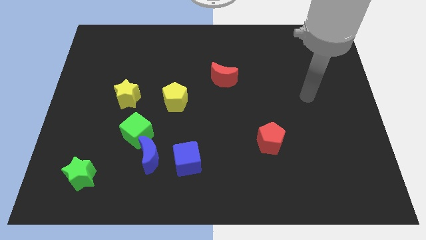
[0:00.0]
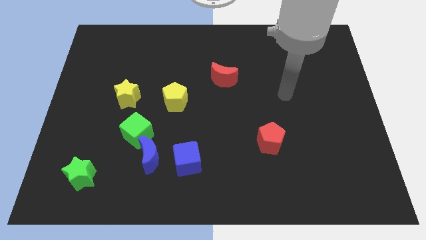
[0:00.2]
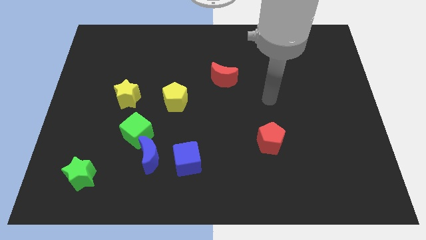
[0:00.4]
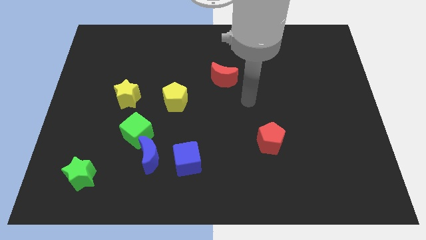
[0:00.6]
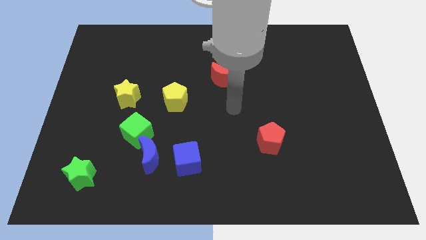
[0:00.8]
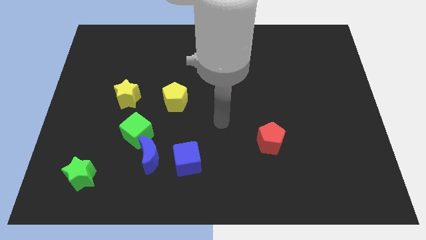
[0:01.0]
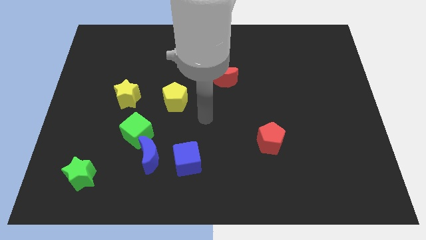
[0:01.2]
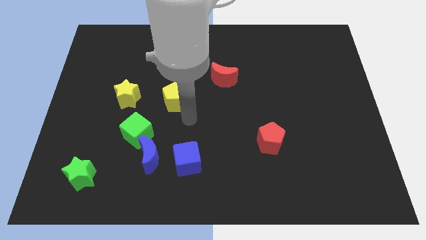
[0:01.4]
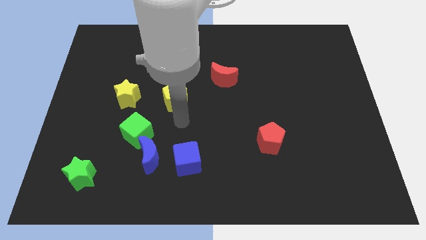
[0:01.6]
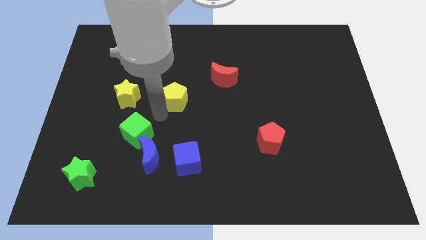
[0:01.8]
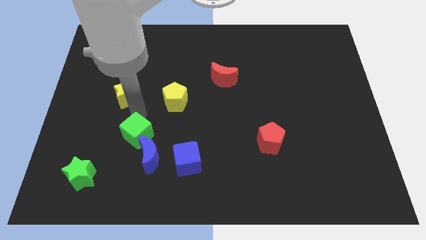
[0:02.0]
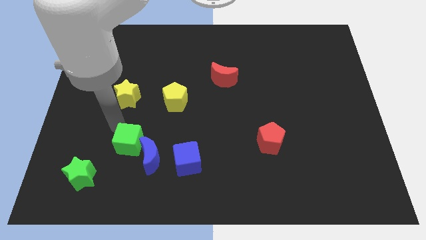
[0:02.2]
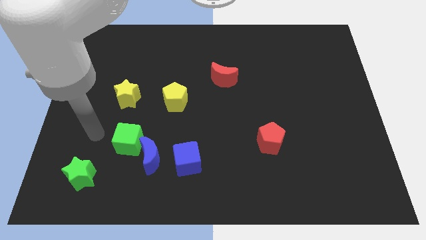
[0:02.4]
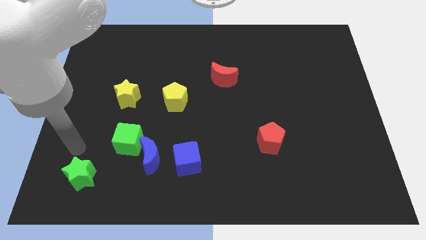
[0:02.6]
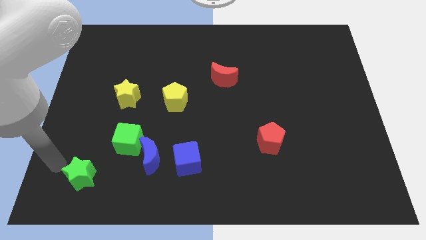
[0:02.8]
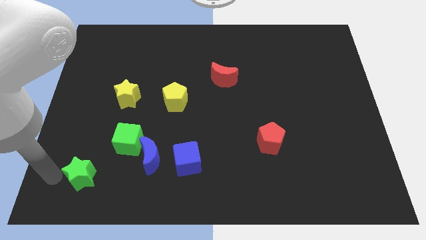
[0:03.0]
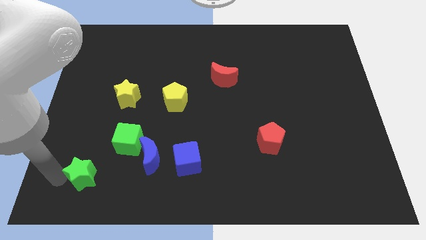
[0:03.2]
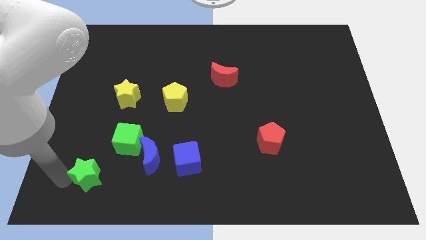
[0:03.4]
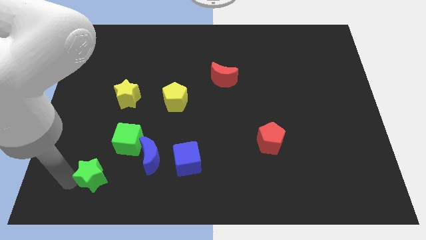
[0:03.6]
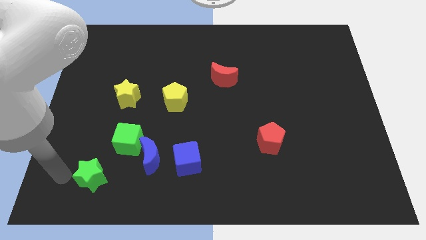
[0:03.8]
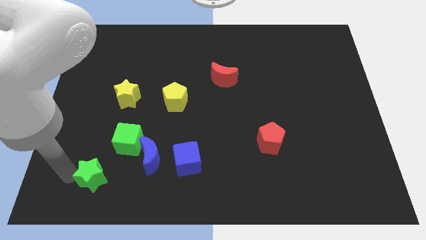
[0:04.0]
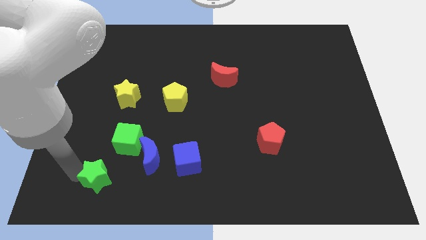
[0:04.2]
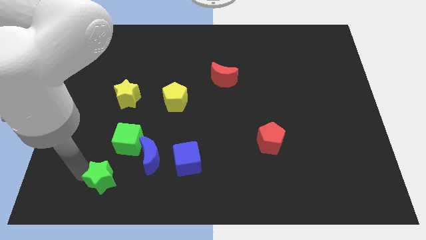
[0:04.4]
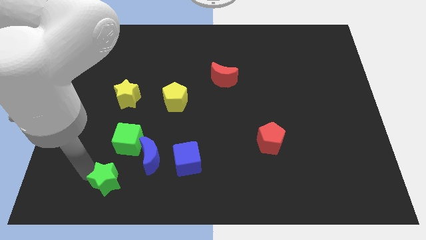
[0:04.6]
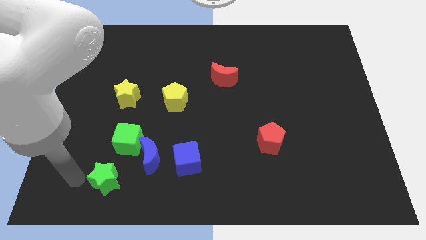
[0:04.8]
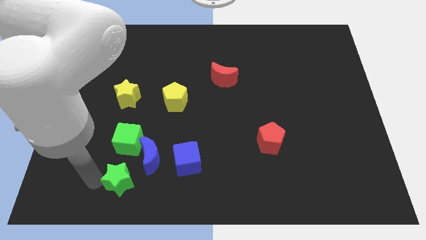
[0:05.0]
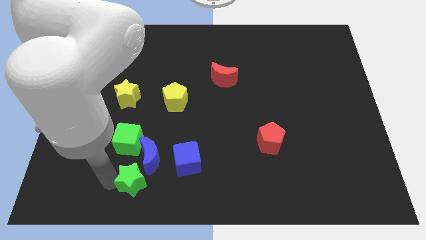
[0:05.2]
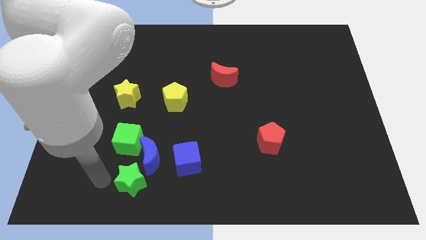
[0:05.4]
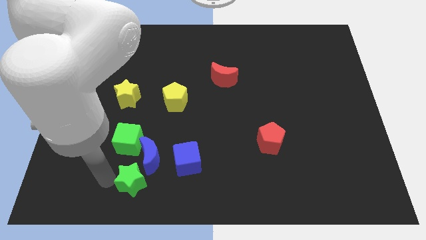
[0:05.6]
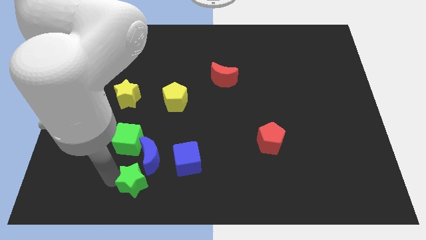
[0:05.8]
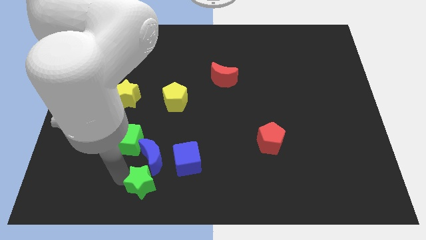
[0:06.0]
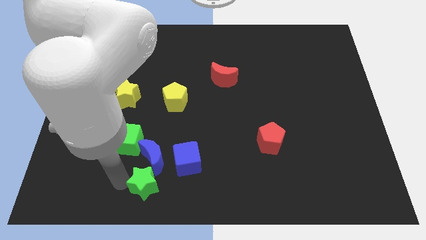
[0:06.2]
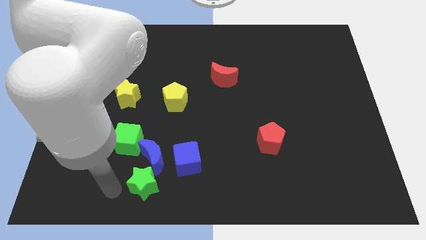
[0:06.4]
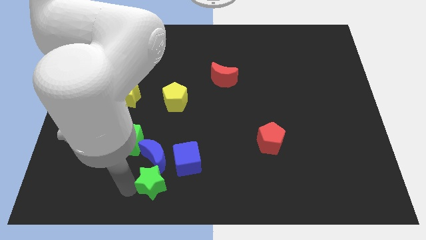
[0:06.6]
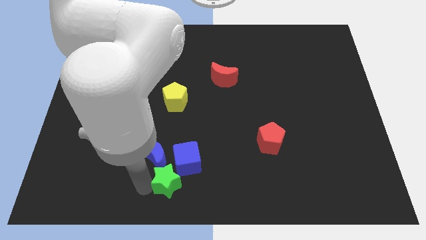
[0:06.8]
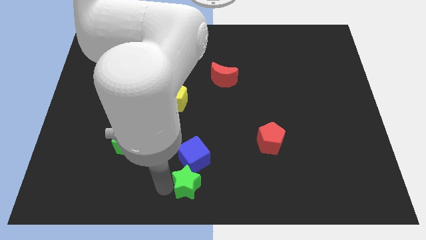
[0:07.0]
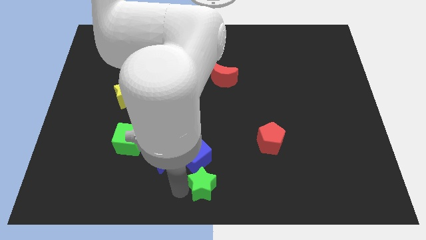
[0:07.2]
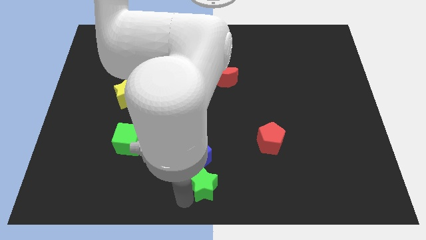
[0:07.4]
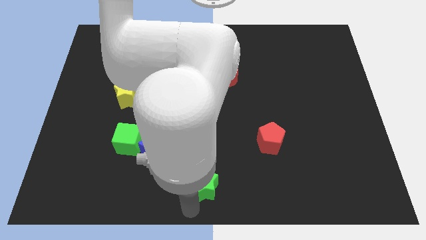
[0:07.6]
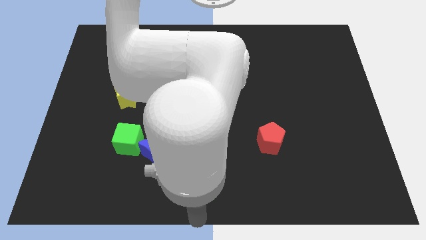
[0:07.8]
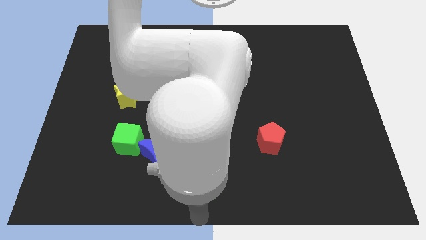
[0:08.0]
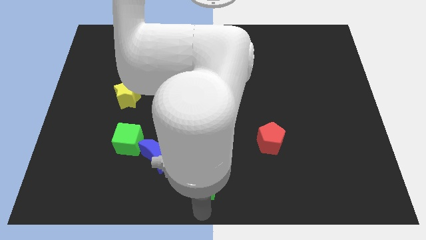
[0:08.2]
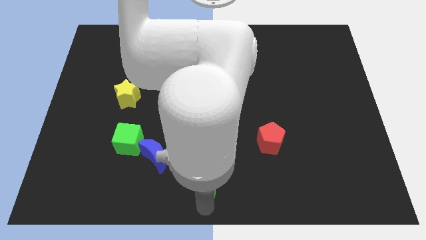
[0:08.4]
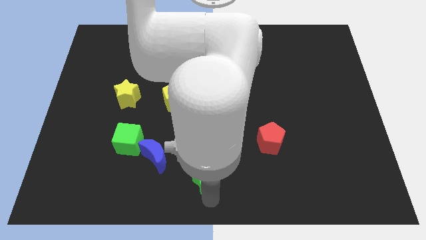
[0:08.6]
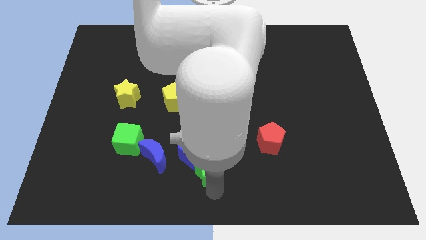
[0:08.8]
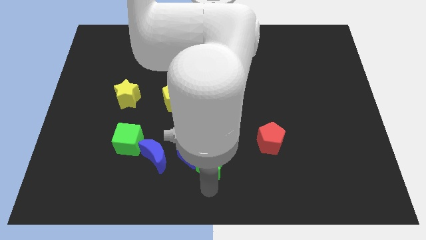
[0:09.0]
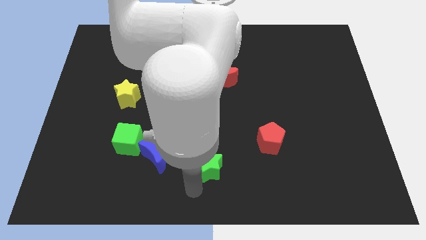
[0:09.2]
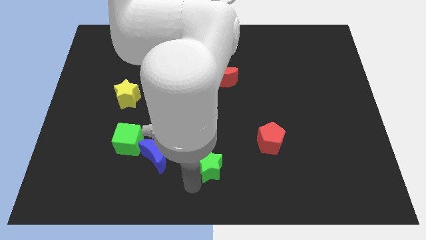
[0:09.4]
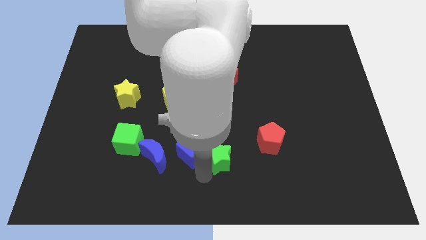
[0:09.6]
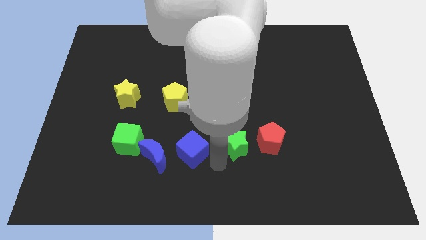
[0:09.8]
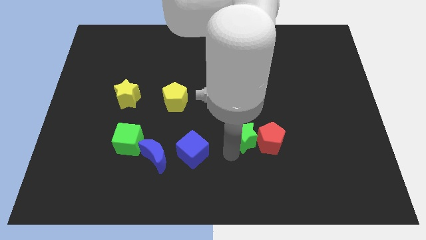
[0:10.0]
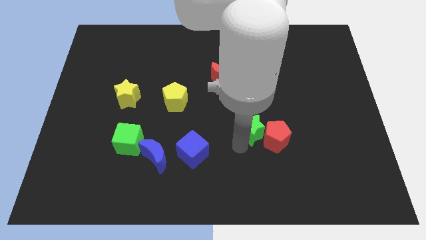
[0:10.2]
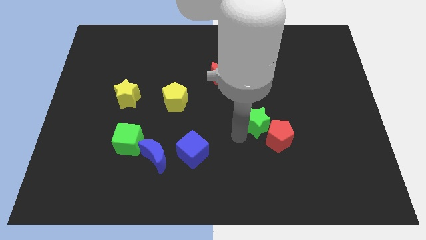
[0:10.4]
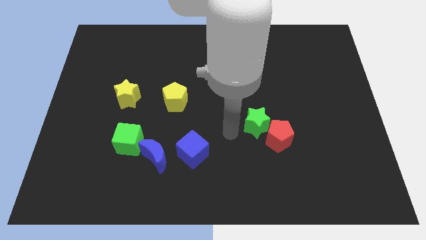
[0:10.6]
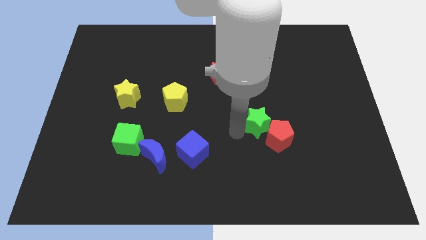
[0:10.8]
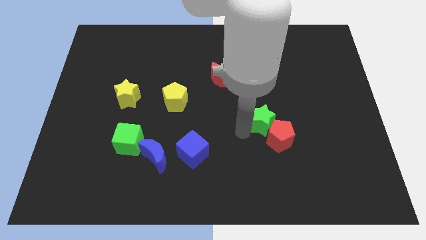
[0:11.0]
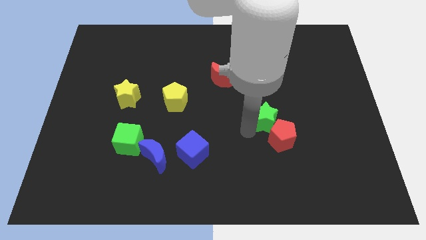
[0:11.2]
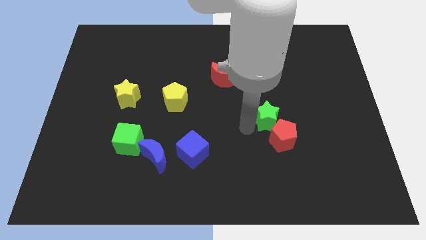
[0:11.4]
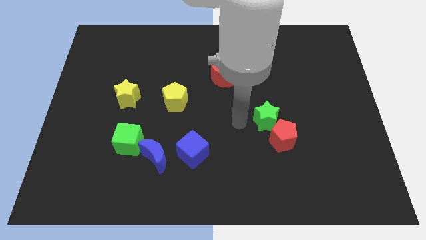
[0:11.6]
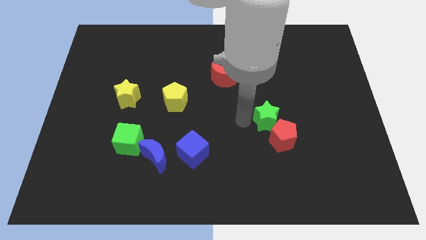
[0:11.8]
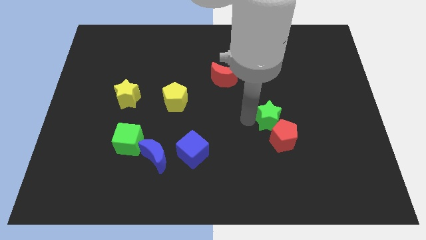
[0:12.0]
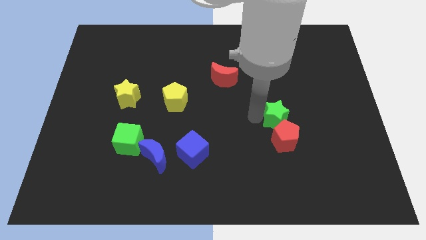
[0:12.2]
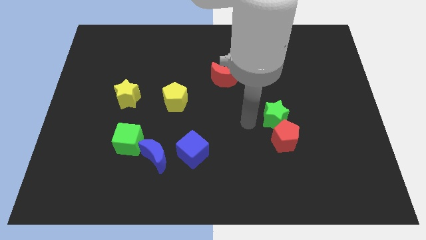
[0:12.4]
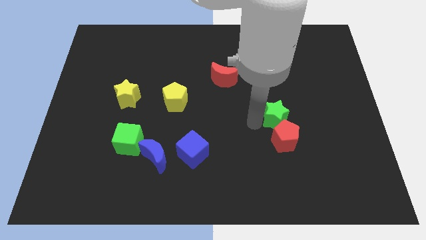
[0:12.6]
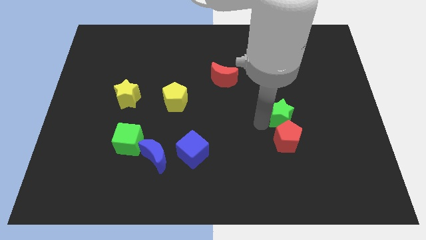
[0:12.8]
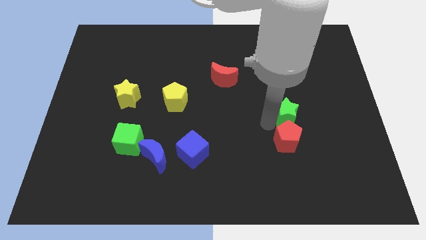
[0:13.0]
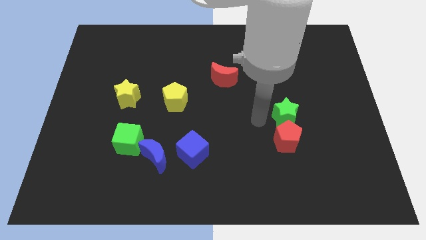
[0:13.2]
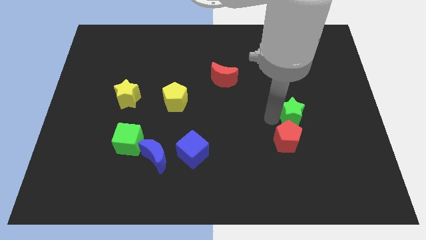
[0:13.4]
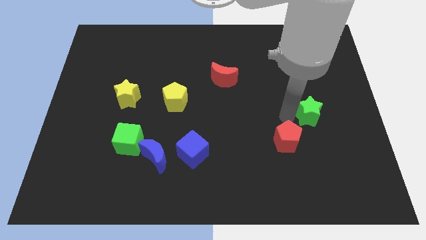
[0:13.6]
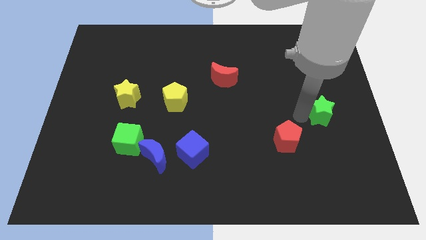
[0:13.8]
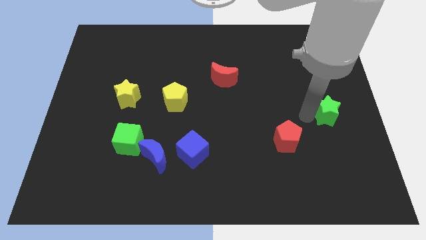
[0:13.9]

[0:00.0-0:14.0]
push the green star to the right side of the board
